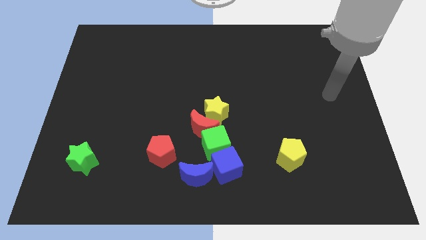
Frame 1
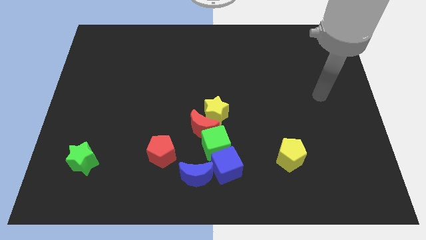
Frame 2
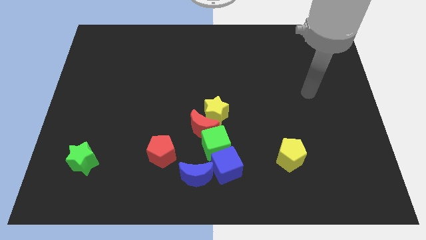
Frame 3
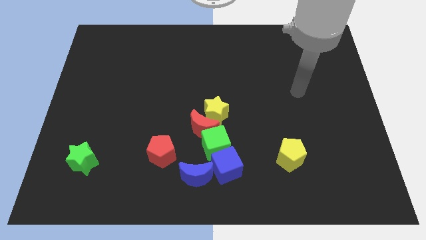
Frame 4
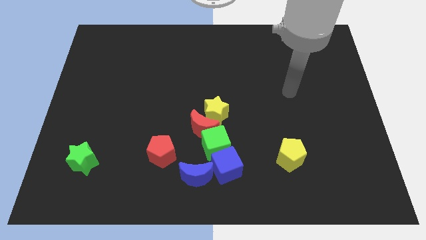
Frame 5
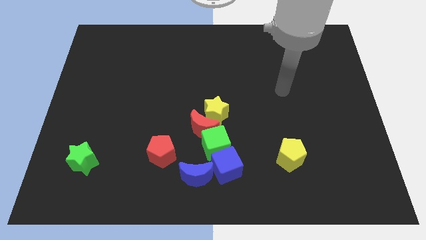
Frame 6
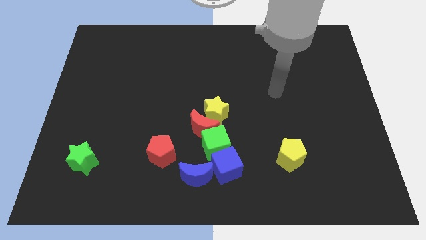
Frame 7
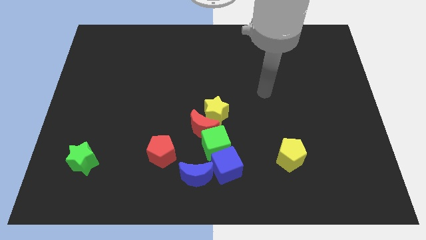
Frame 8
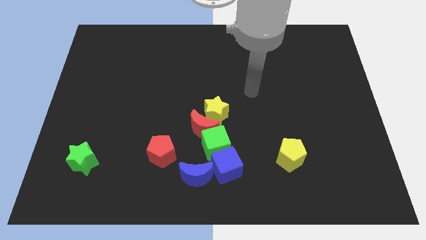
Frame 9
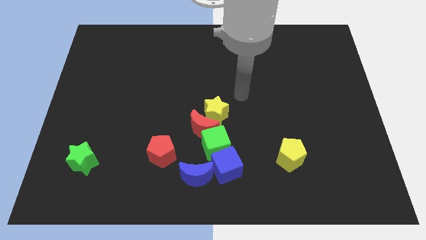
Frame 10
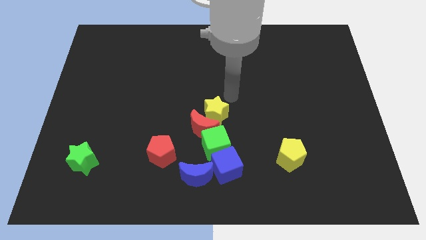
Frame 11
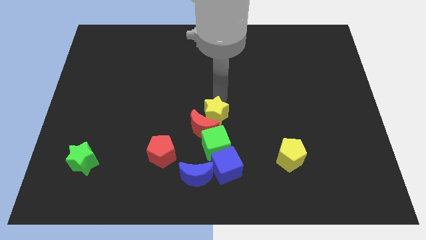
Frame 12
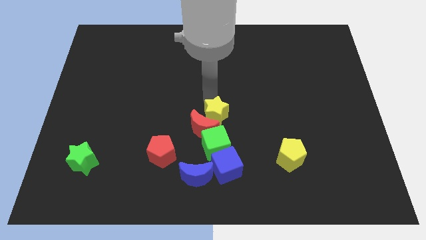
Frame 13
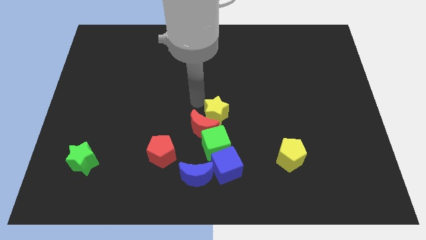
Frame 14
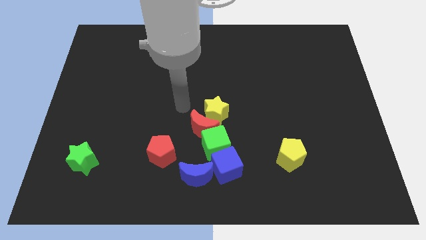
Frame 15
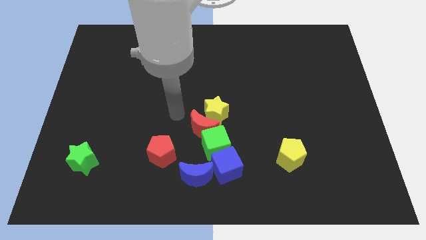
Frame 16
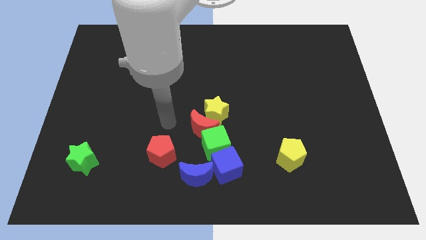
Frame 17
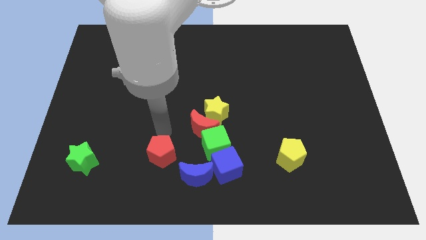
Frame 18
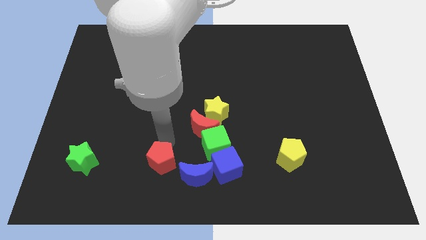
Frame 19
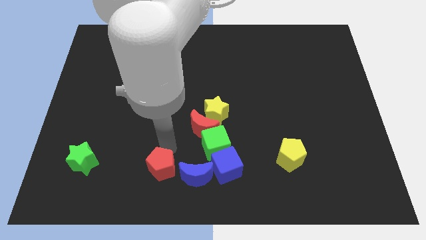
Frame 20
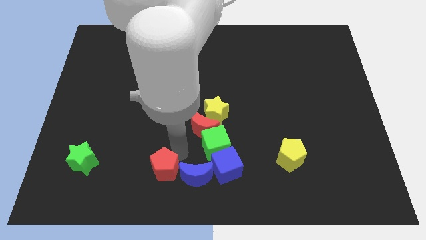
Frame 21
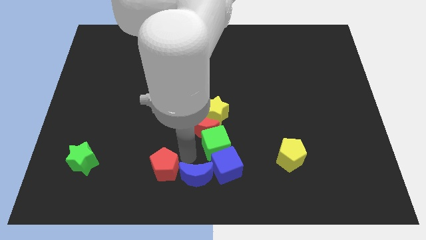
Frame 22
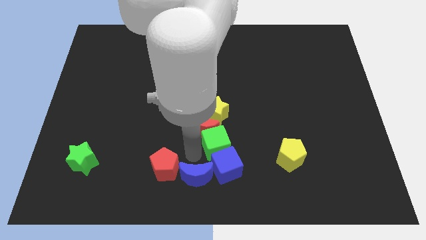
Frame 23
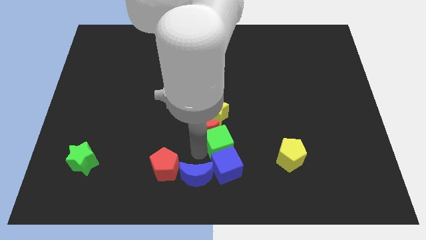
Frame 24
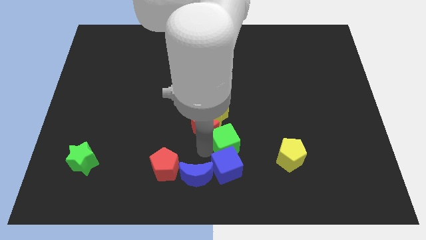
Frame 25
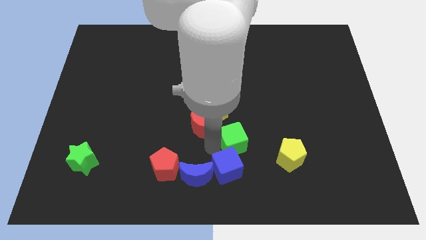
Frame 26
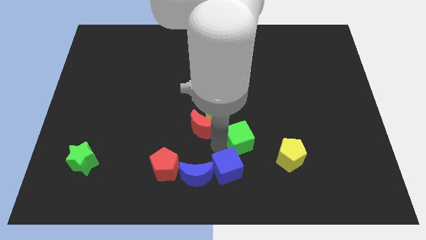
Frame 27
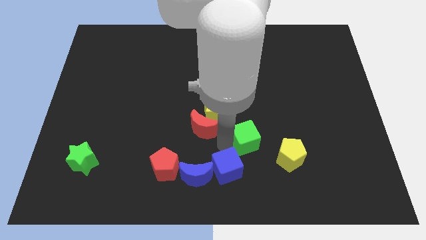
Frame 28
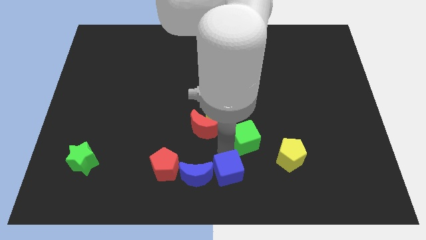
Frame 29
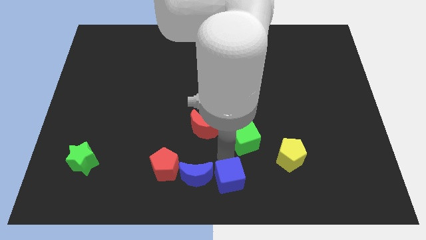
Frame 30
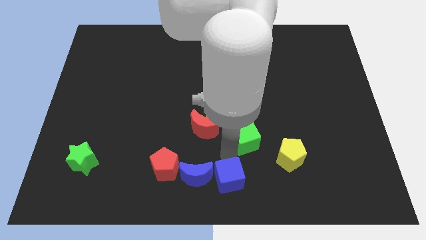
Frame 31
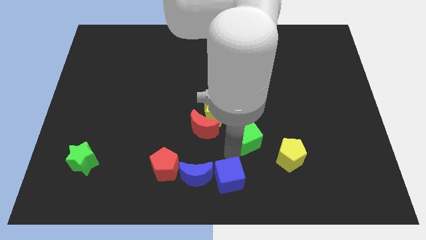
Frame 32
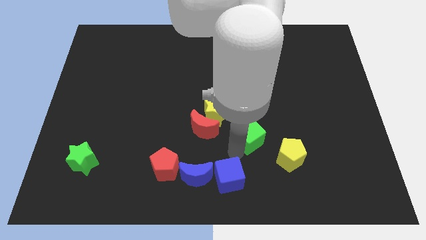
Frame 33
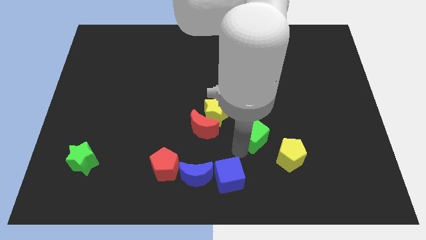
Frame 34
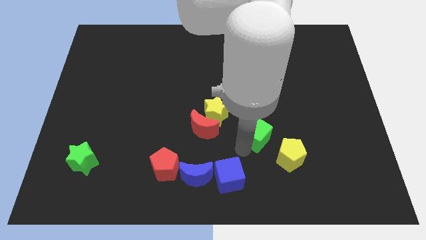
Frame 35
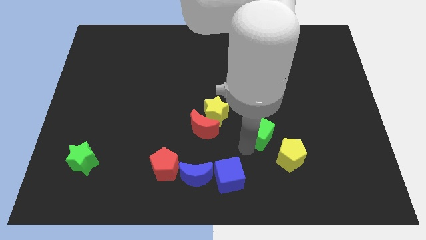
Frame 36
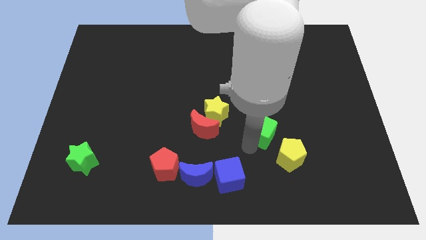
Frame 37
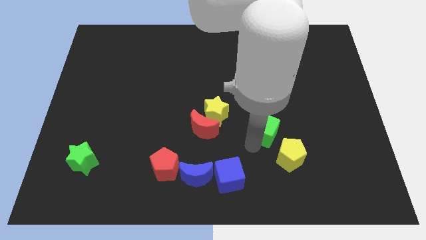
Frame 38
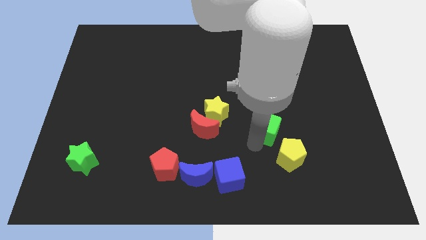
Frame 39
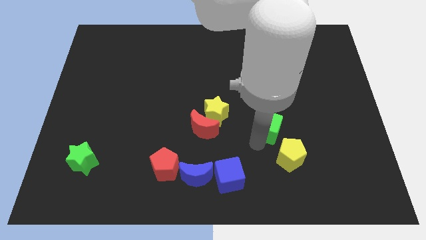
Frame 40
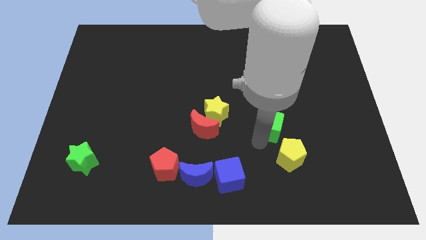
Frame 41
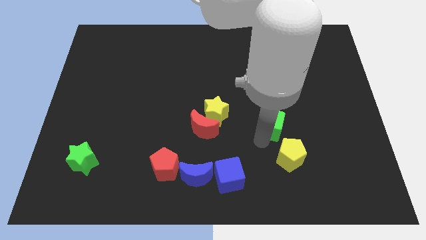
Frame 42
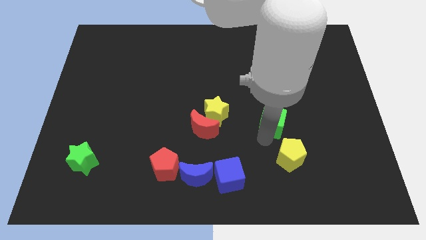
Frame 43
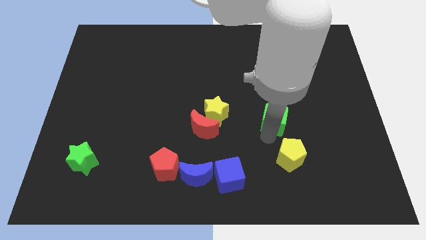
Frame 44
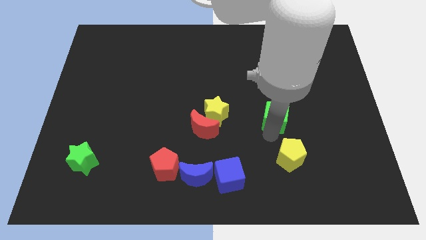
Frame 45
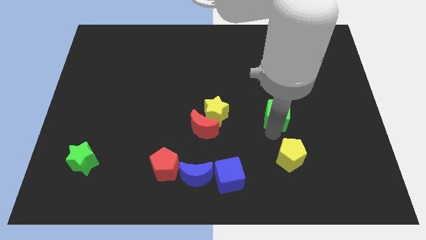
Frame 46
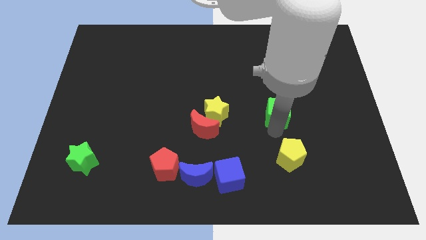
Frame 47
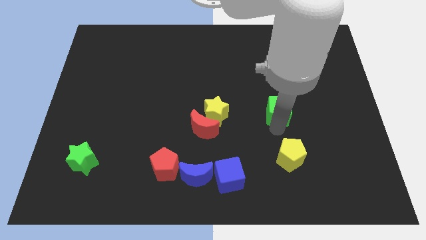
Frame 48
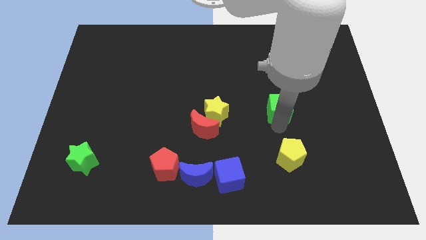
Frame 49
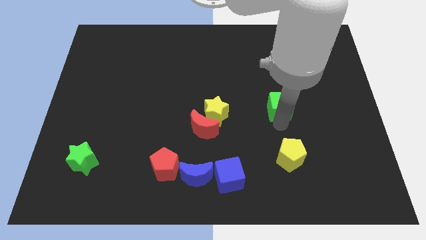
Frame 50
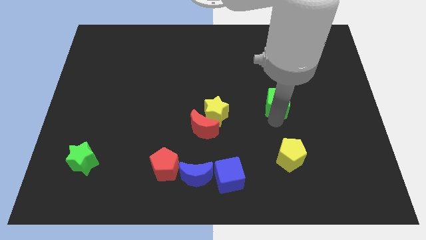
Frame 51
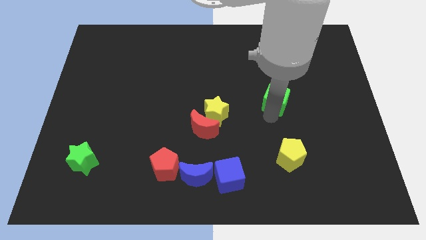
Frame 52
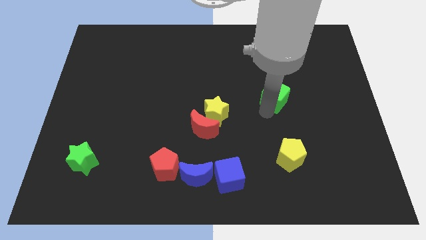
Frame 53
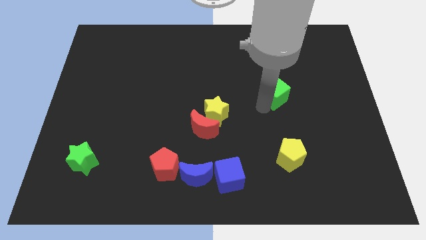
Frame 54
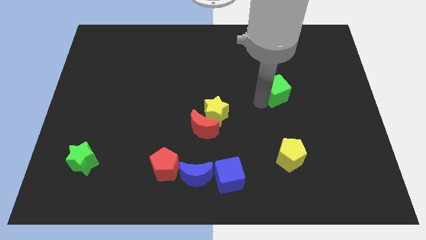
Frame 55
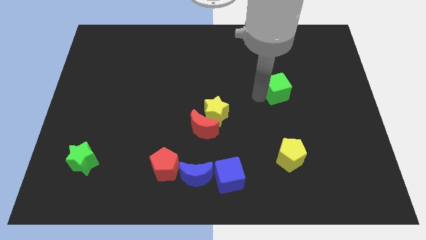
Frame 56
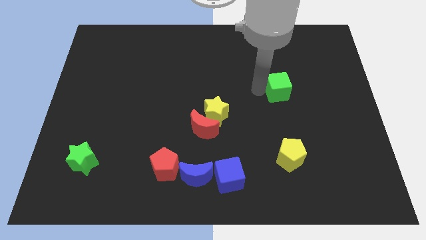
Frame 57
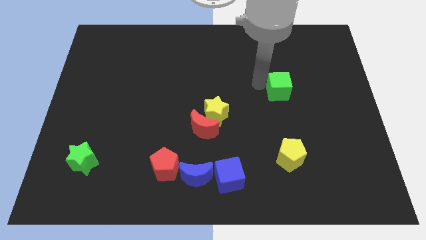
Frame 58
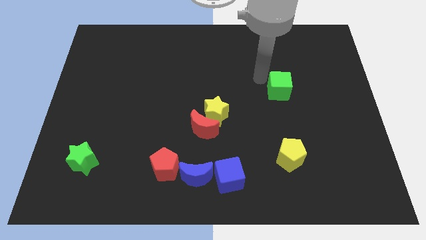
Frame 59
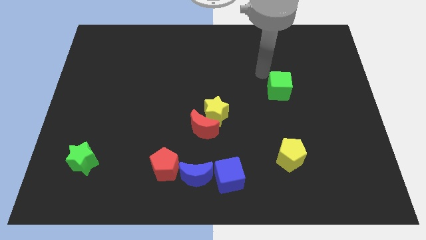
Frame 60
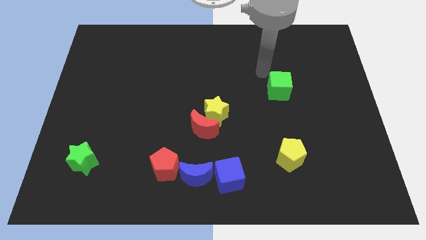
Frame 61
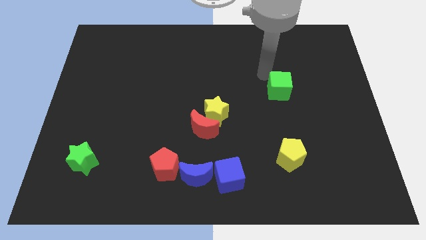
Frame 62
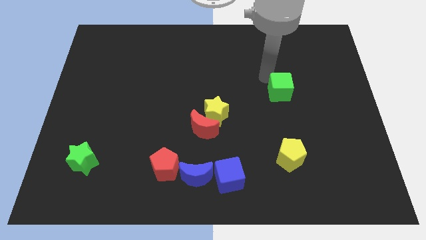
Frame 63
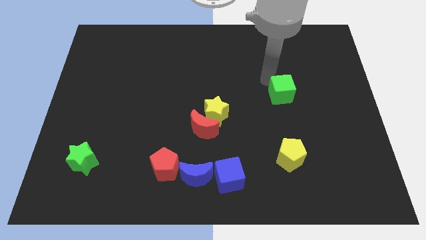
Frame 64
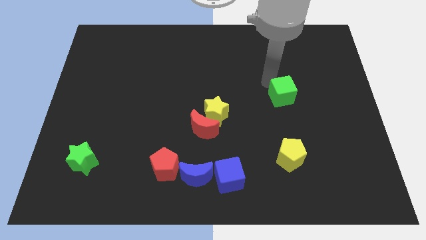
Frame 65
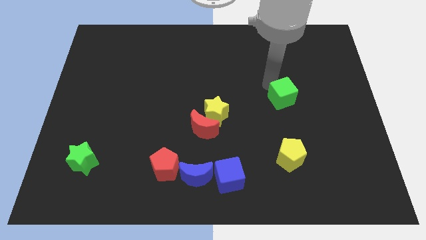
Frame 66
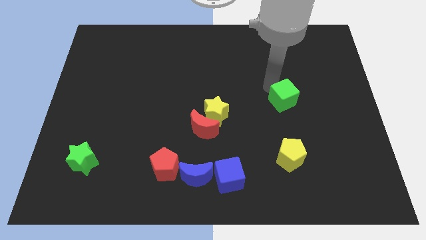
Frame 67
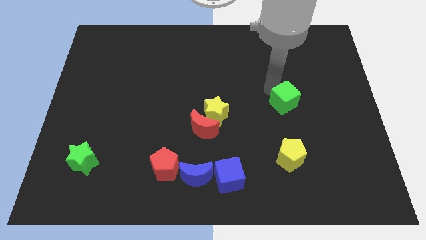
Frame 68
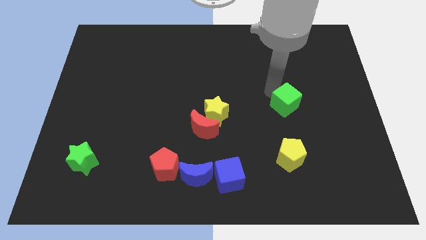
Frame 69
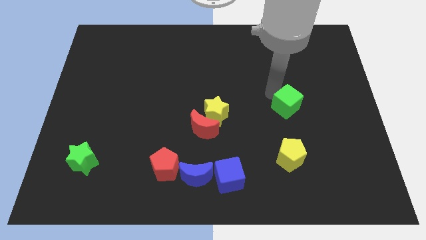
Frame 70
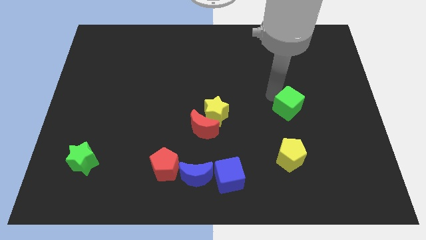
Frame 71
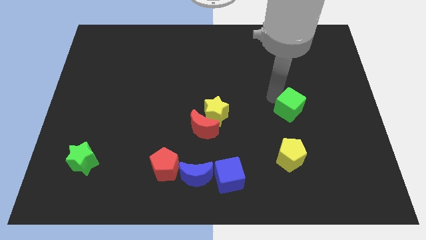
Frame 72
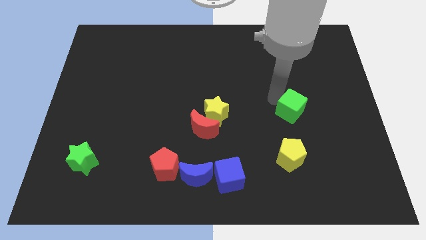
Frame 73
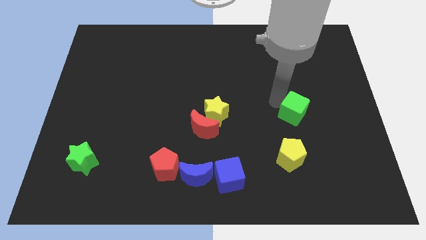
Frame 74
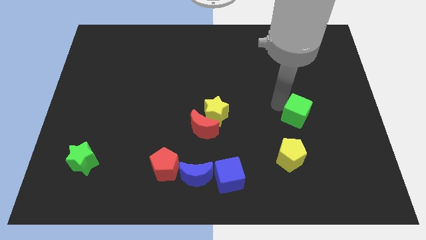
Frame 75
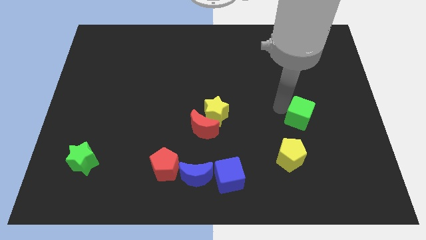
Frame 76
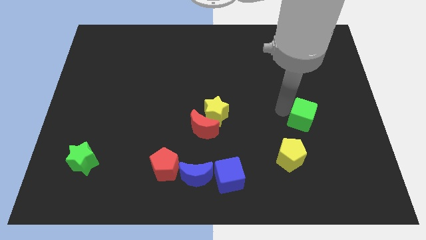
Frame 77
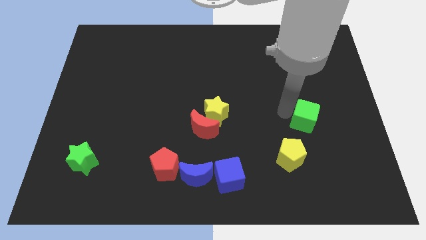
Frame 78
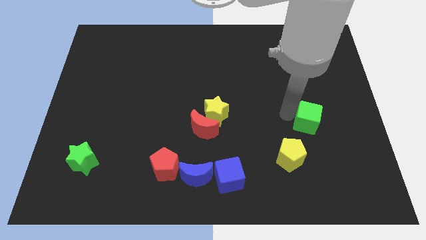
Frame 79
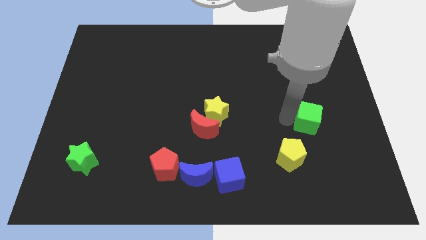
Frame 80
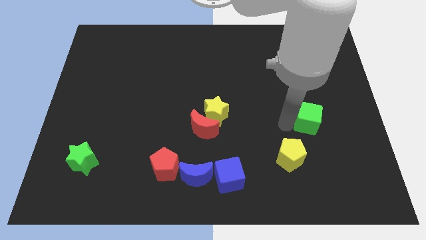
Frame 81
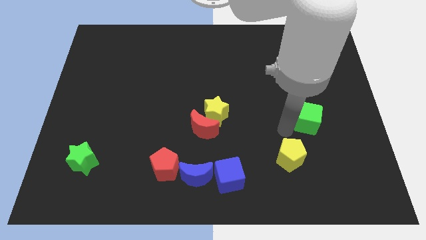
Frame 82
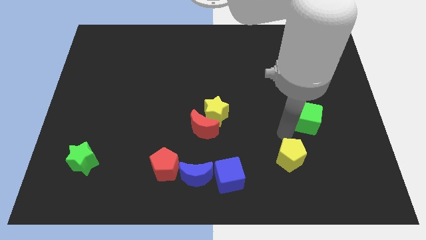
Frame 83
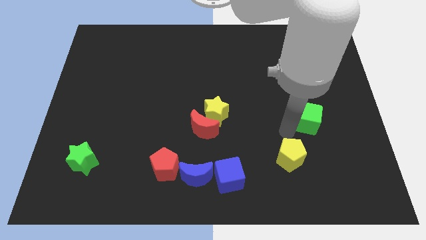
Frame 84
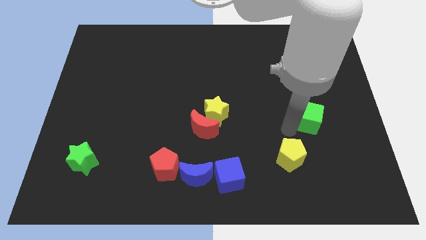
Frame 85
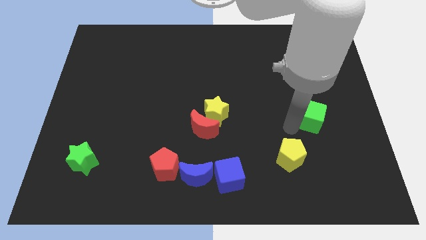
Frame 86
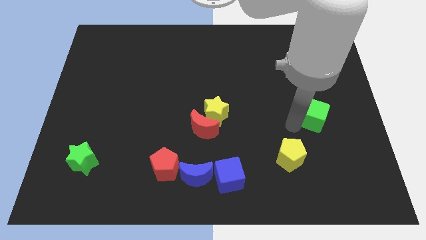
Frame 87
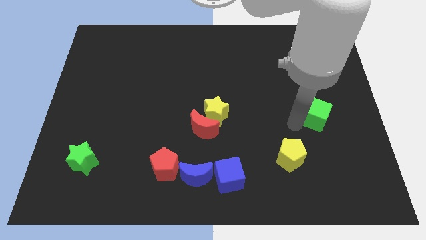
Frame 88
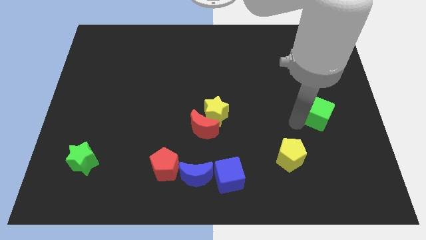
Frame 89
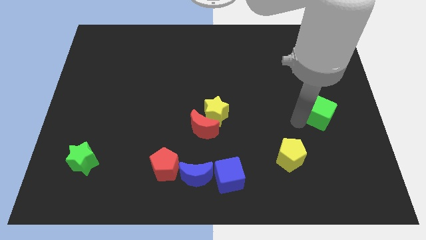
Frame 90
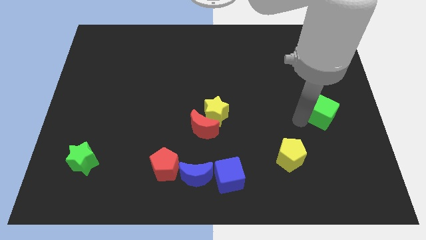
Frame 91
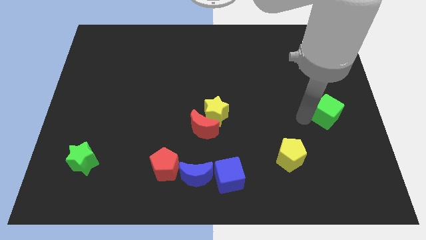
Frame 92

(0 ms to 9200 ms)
put the green cube to the center right
